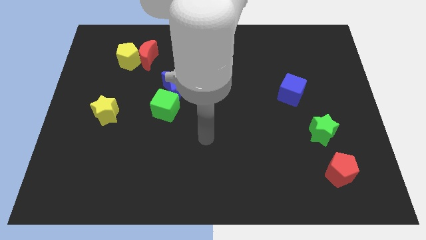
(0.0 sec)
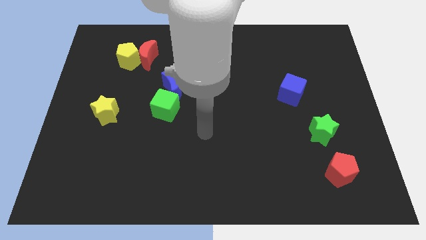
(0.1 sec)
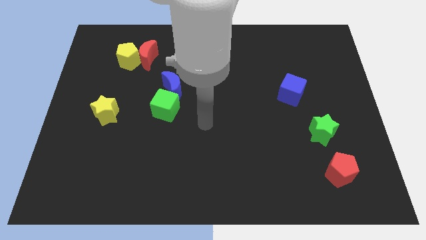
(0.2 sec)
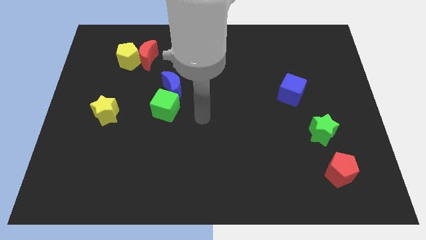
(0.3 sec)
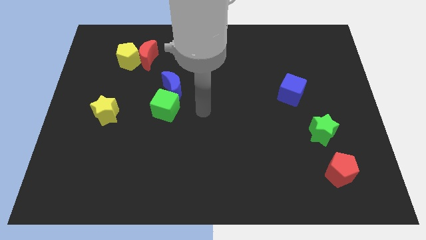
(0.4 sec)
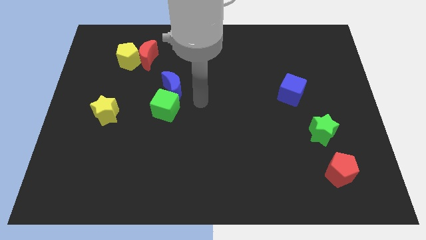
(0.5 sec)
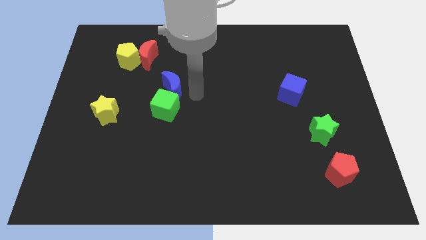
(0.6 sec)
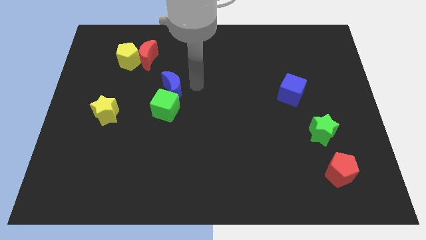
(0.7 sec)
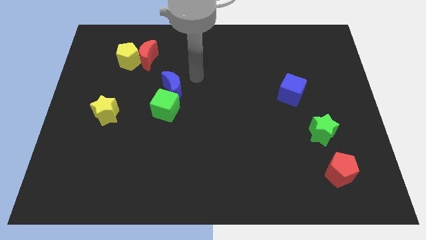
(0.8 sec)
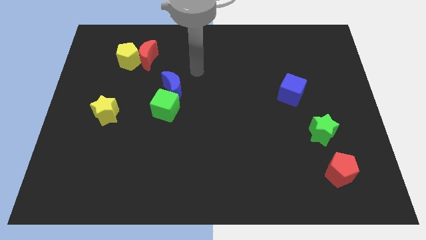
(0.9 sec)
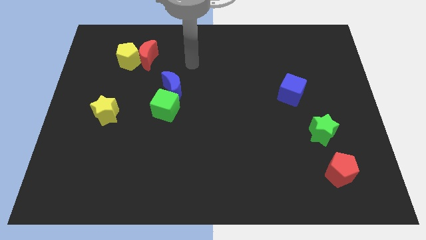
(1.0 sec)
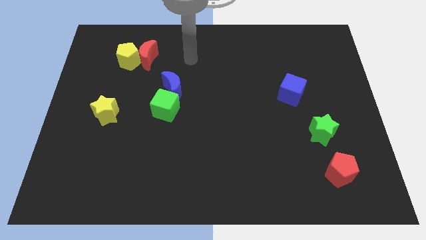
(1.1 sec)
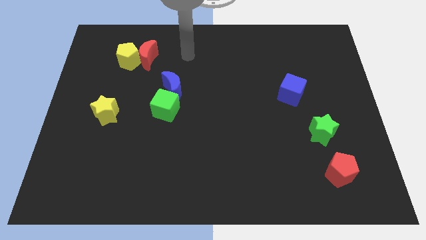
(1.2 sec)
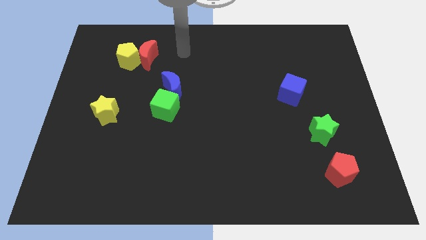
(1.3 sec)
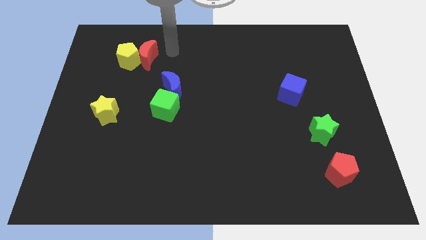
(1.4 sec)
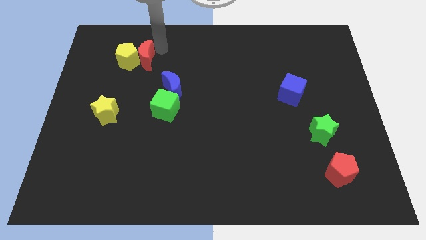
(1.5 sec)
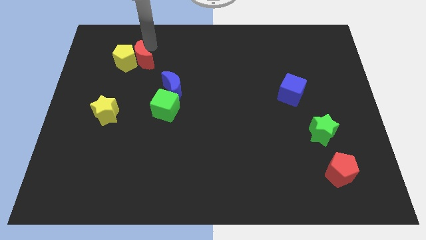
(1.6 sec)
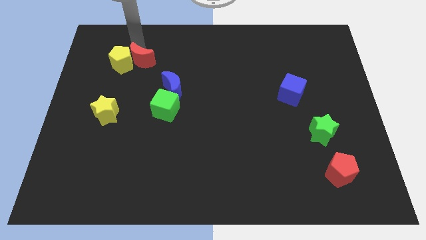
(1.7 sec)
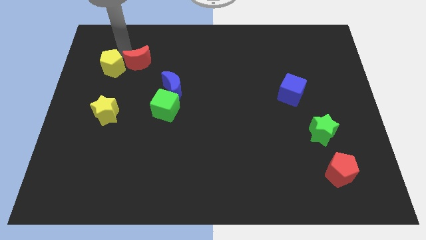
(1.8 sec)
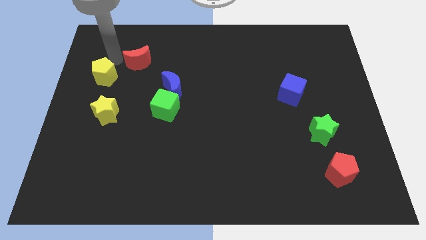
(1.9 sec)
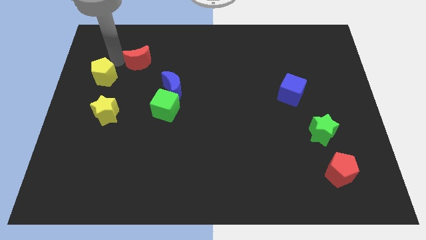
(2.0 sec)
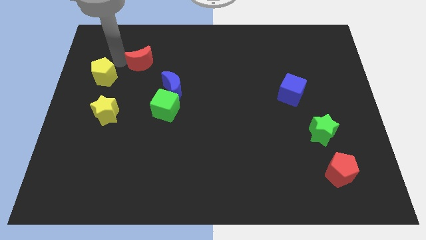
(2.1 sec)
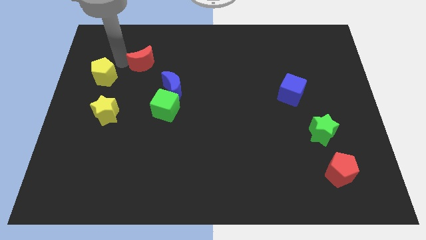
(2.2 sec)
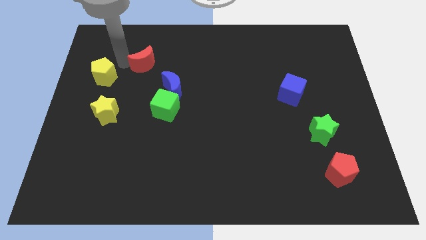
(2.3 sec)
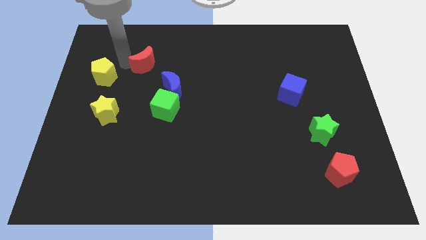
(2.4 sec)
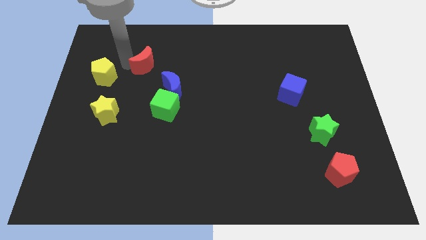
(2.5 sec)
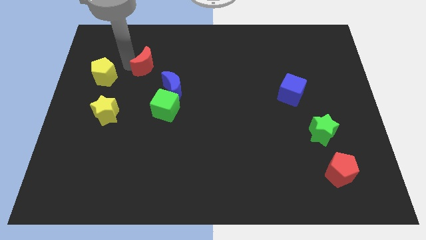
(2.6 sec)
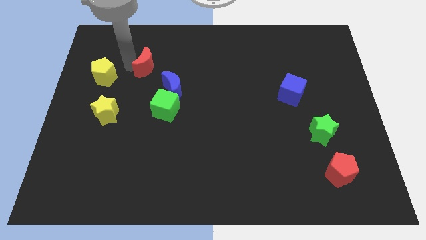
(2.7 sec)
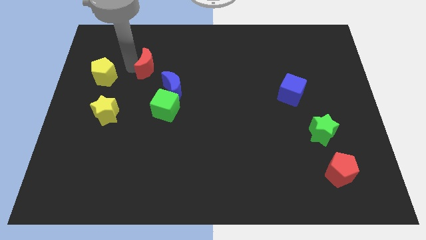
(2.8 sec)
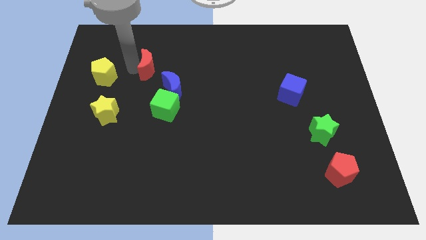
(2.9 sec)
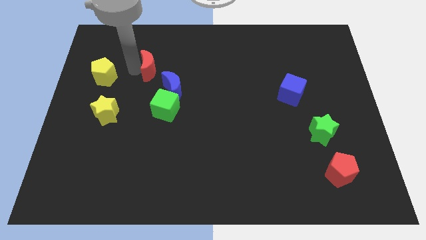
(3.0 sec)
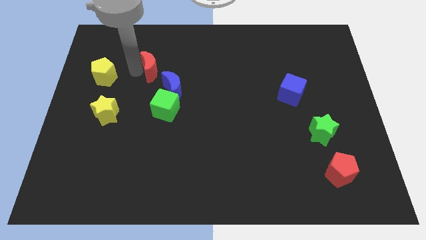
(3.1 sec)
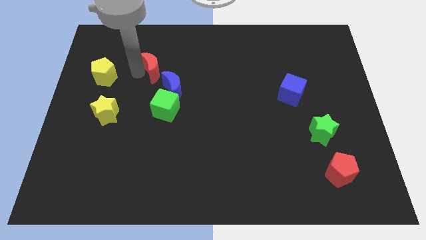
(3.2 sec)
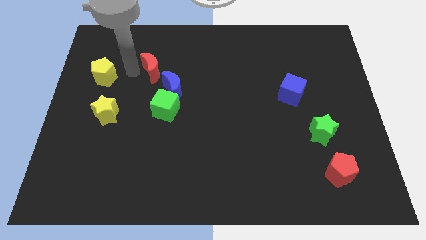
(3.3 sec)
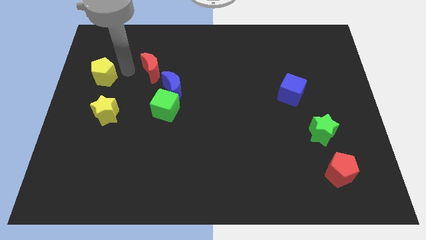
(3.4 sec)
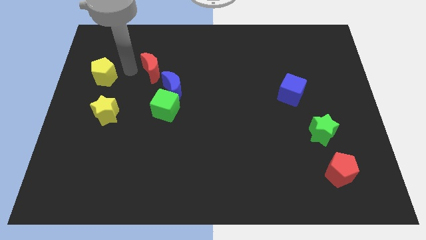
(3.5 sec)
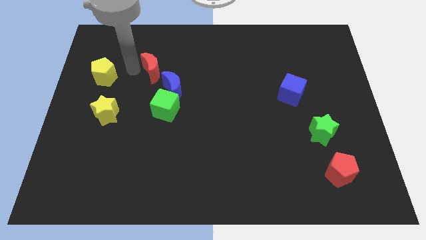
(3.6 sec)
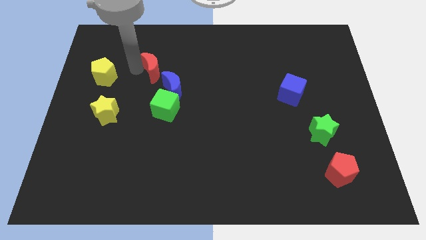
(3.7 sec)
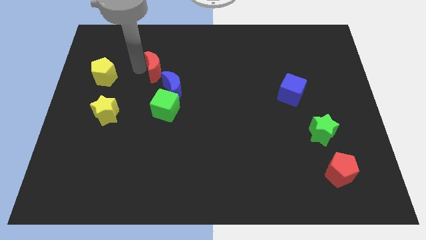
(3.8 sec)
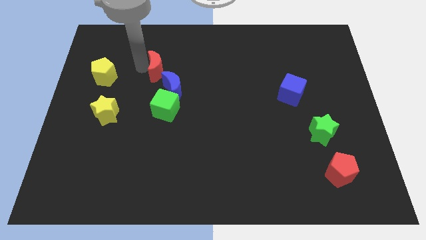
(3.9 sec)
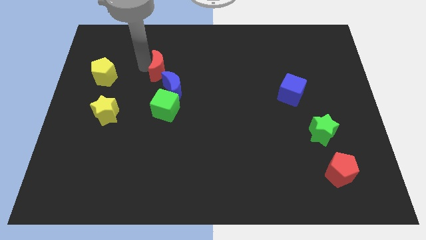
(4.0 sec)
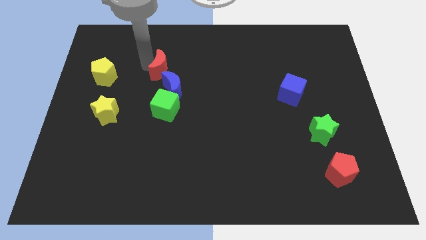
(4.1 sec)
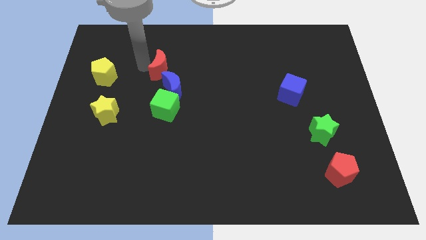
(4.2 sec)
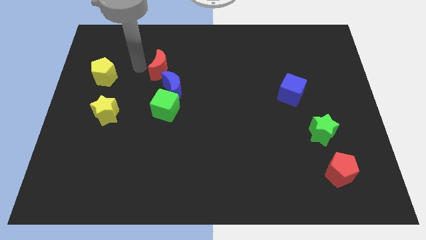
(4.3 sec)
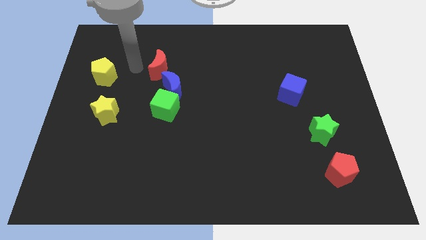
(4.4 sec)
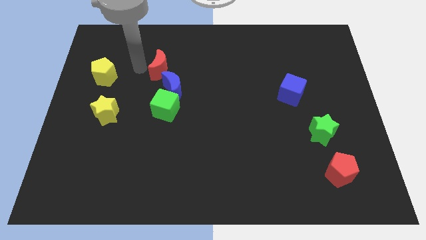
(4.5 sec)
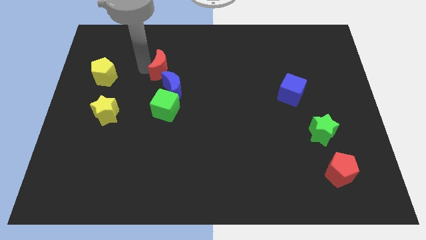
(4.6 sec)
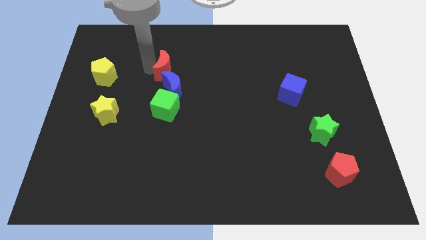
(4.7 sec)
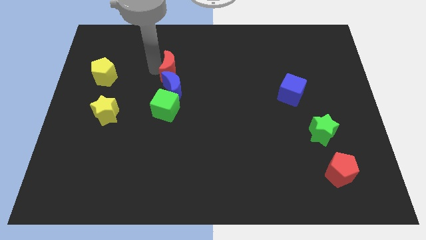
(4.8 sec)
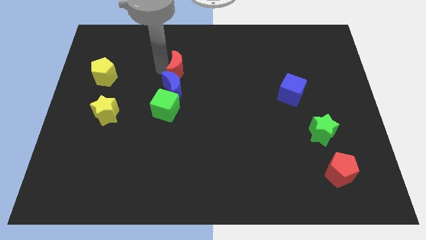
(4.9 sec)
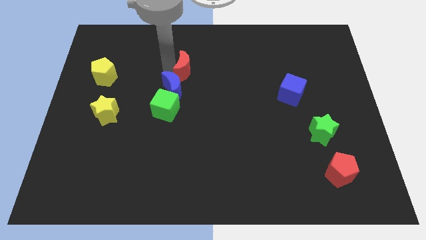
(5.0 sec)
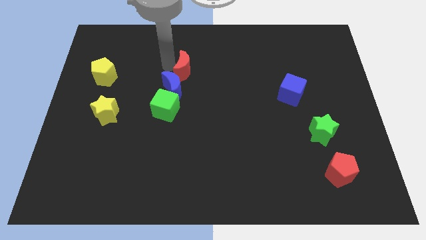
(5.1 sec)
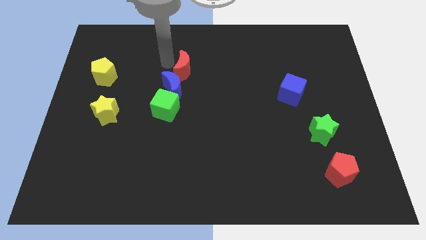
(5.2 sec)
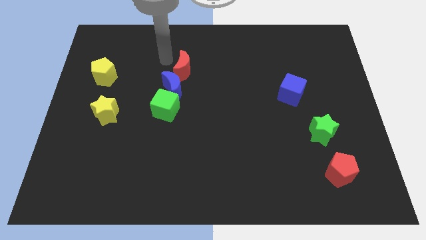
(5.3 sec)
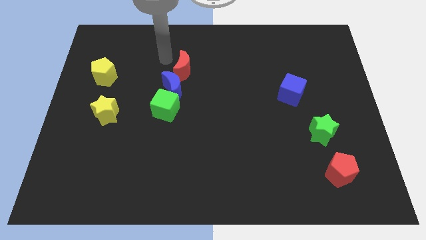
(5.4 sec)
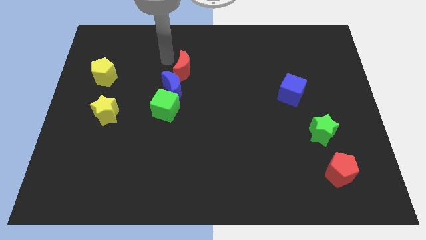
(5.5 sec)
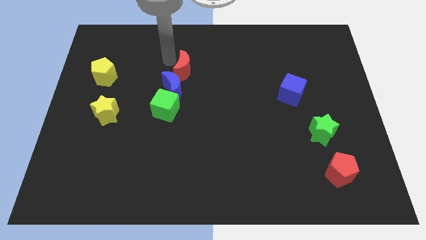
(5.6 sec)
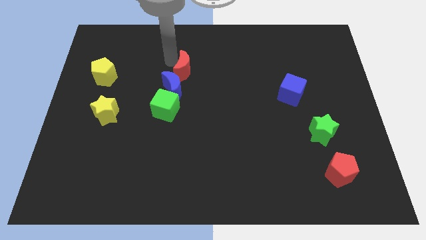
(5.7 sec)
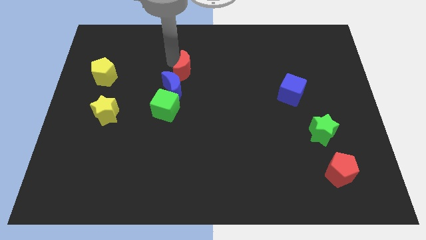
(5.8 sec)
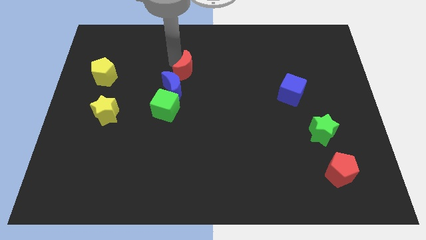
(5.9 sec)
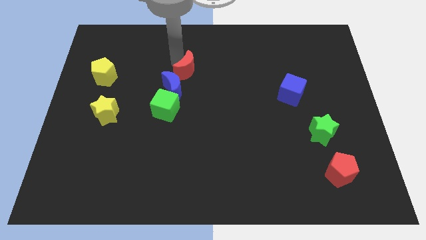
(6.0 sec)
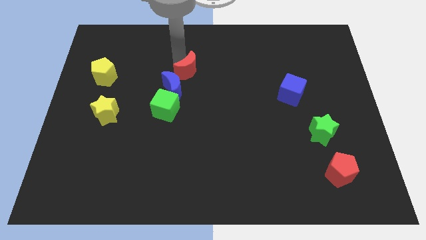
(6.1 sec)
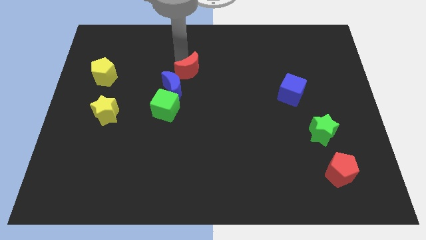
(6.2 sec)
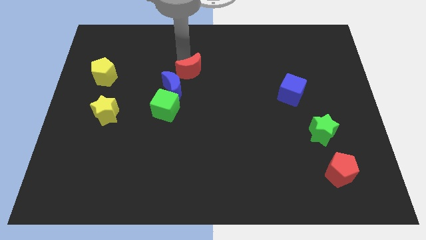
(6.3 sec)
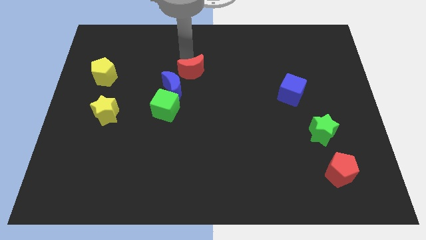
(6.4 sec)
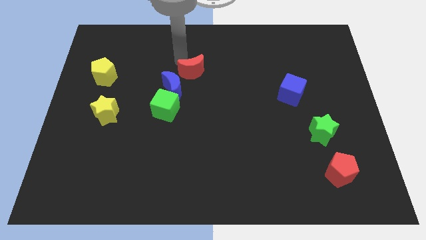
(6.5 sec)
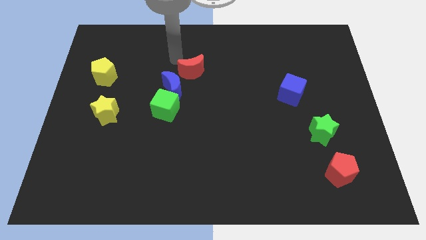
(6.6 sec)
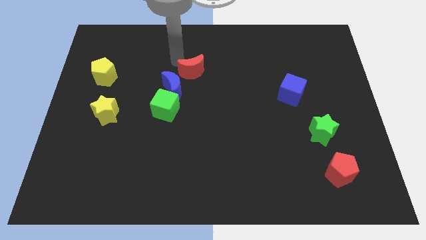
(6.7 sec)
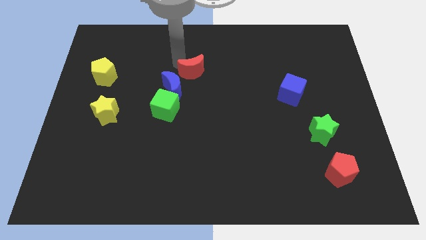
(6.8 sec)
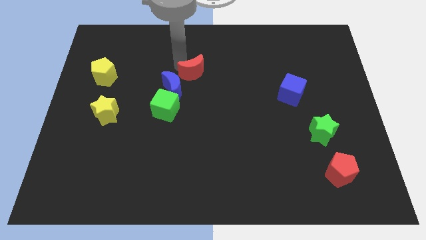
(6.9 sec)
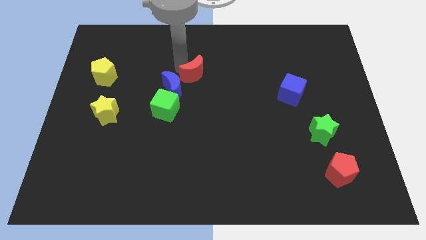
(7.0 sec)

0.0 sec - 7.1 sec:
push the red moon just right of the blue moon
